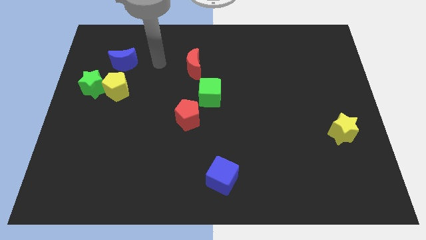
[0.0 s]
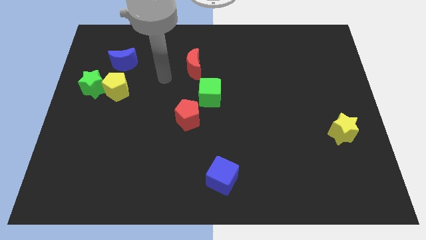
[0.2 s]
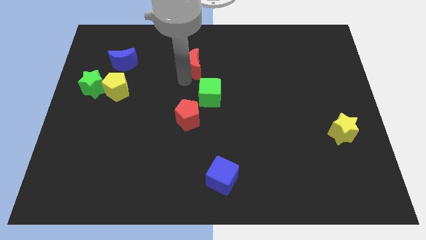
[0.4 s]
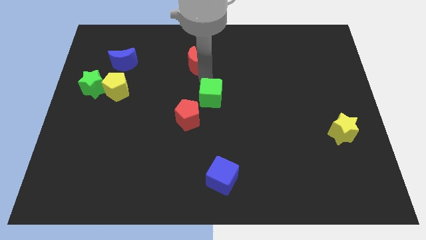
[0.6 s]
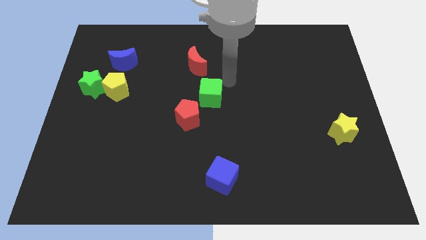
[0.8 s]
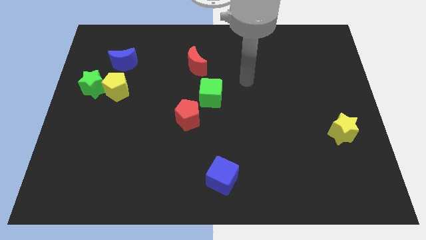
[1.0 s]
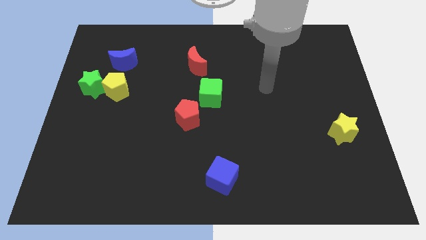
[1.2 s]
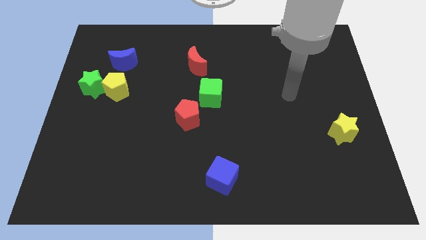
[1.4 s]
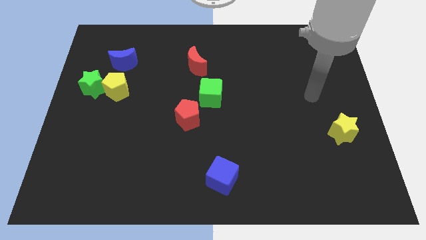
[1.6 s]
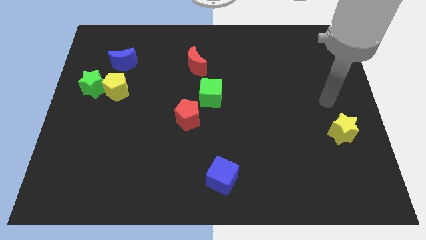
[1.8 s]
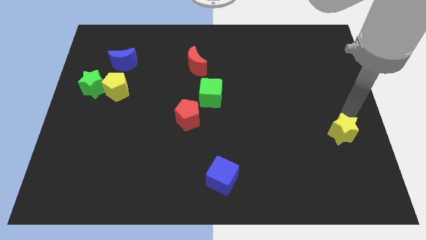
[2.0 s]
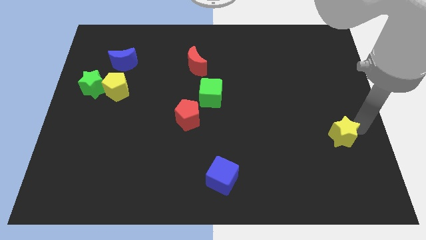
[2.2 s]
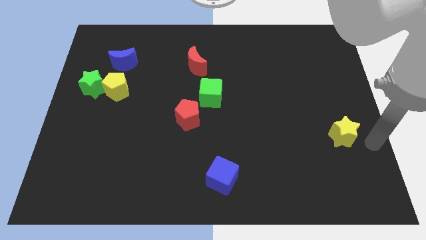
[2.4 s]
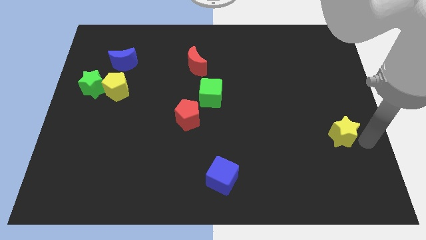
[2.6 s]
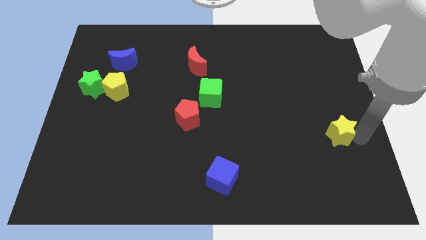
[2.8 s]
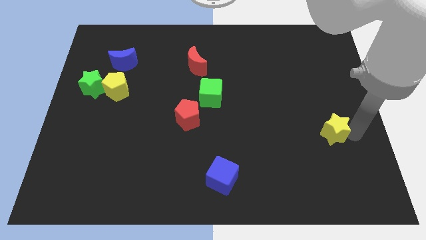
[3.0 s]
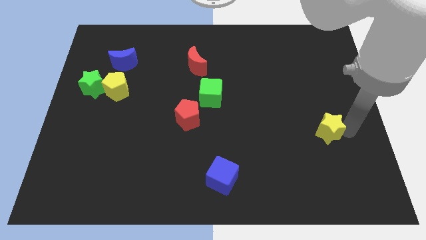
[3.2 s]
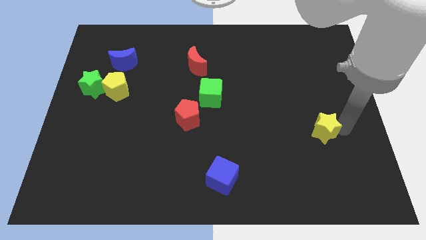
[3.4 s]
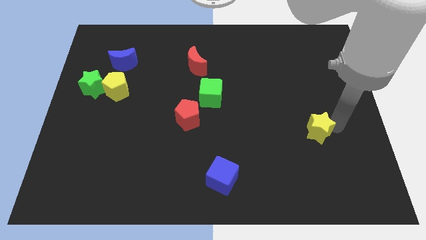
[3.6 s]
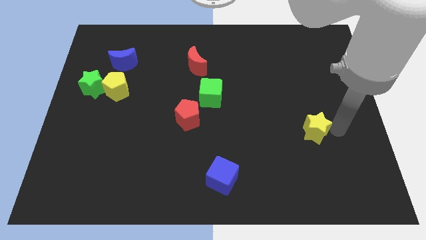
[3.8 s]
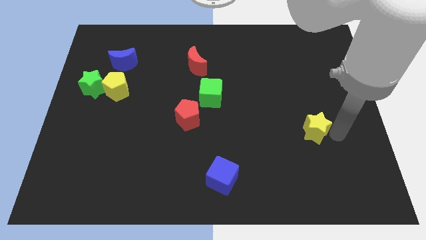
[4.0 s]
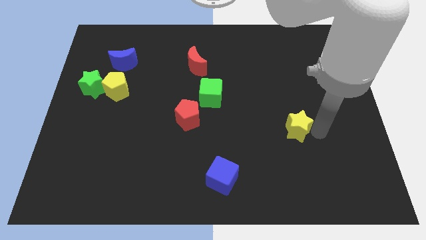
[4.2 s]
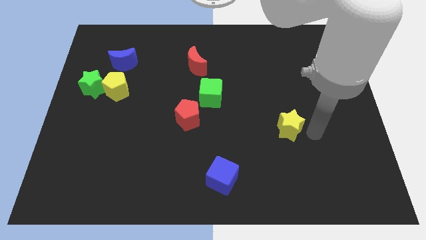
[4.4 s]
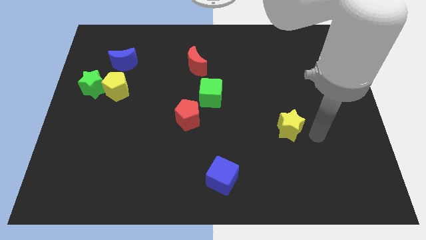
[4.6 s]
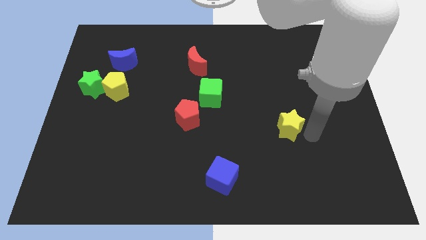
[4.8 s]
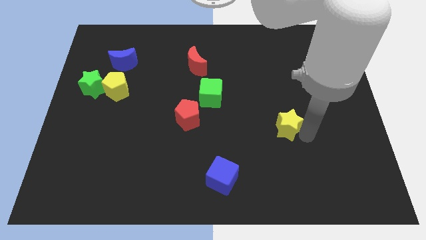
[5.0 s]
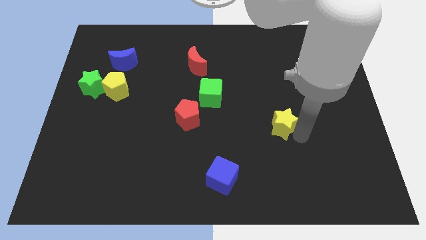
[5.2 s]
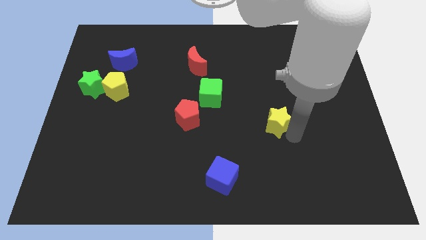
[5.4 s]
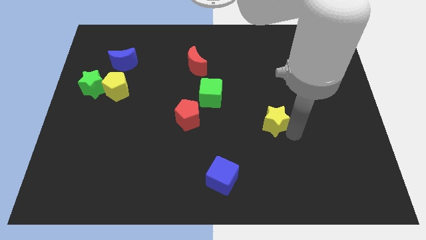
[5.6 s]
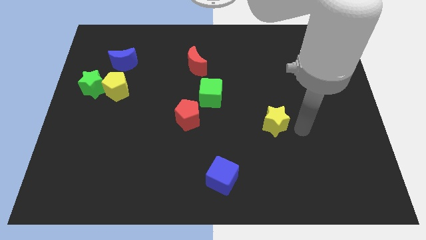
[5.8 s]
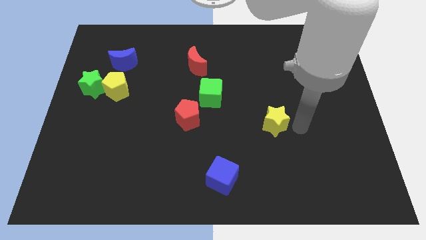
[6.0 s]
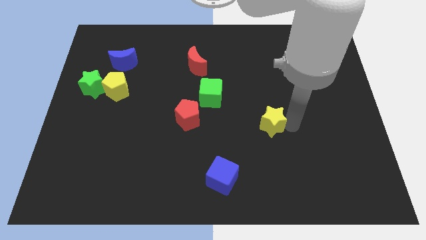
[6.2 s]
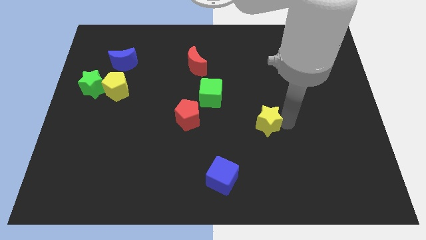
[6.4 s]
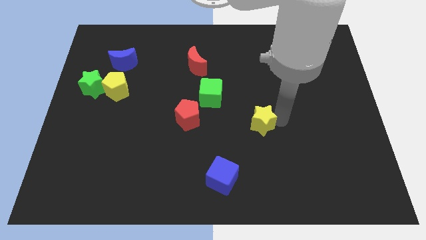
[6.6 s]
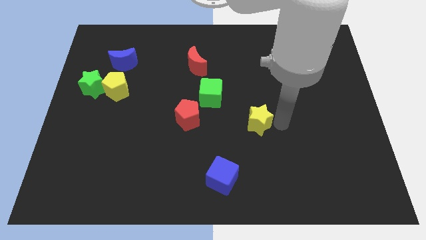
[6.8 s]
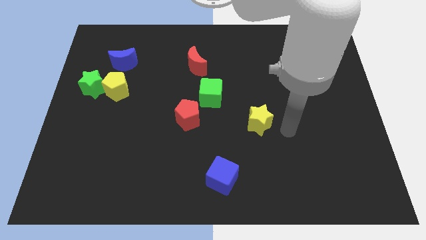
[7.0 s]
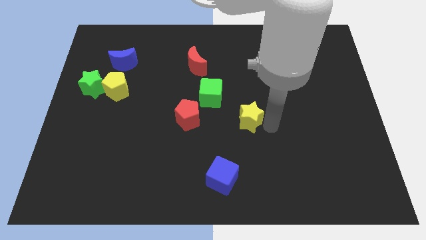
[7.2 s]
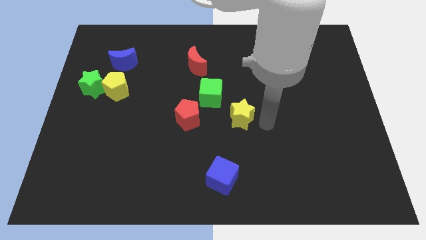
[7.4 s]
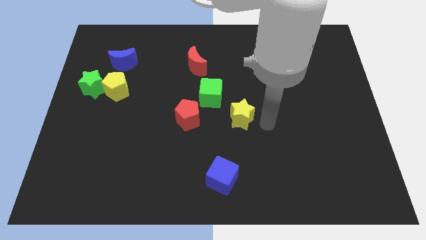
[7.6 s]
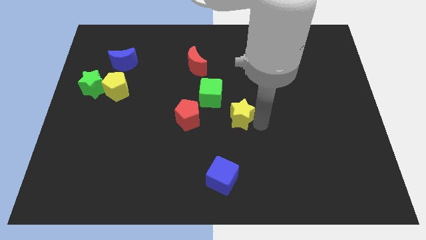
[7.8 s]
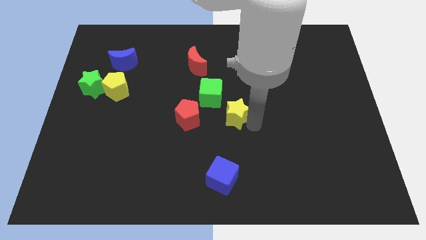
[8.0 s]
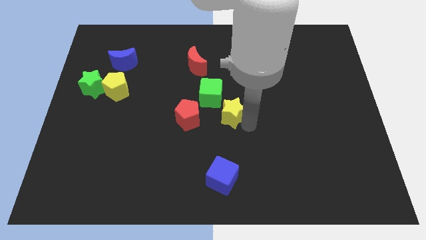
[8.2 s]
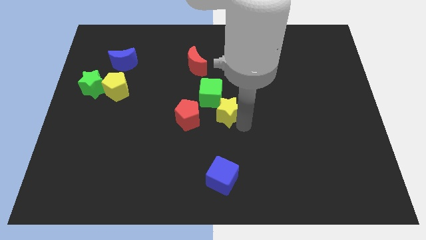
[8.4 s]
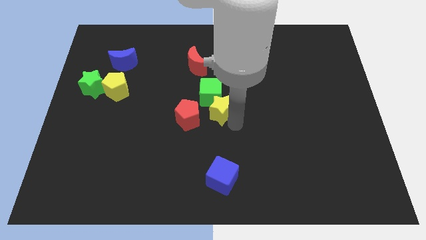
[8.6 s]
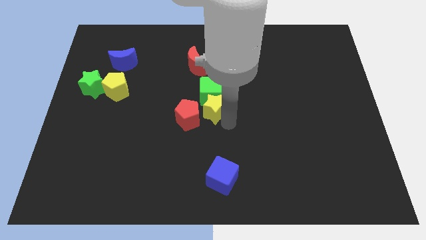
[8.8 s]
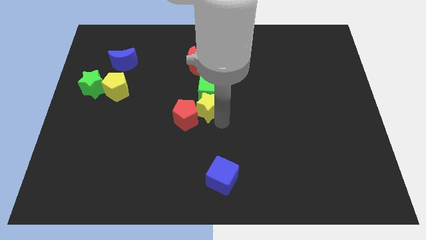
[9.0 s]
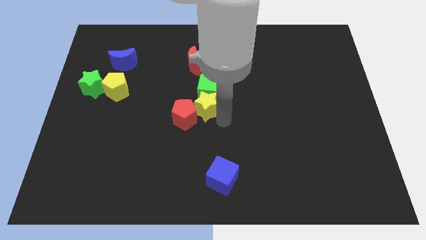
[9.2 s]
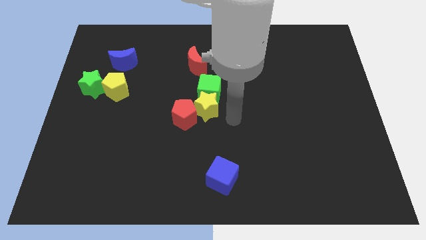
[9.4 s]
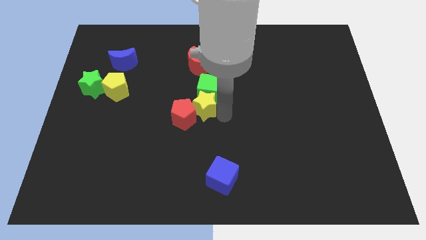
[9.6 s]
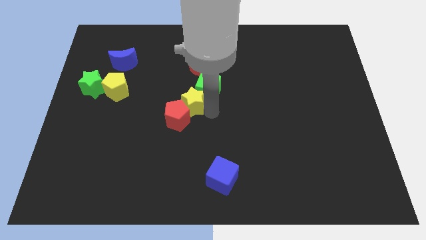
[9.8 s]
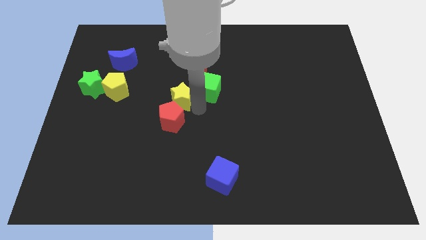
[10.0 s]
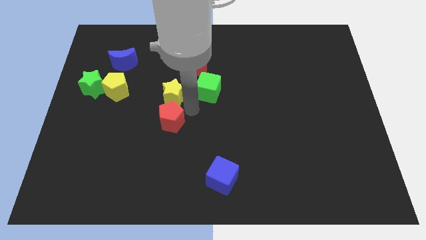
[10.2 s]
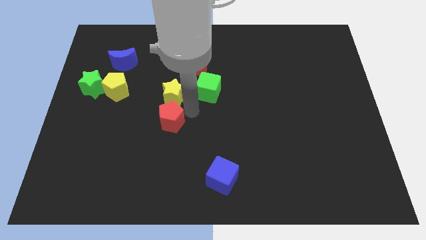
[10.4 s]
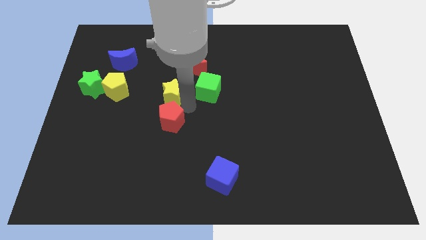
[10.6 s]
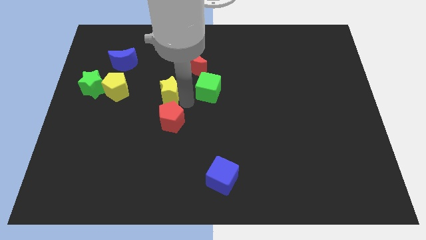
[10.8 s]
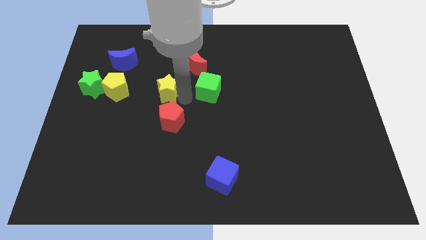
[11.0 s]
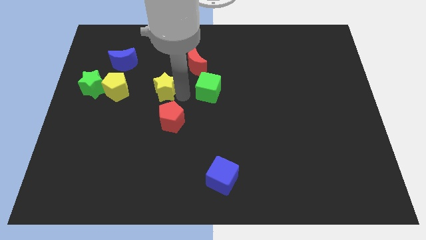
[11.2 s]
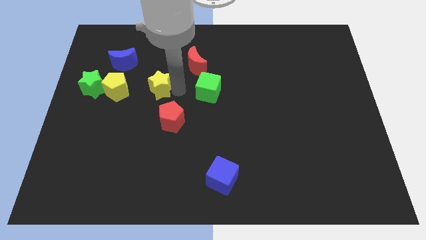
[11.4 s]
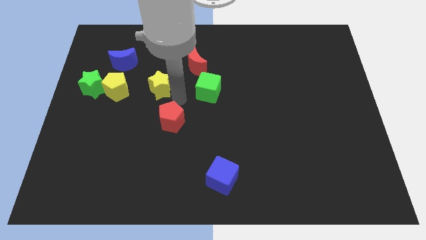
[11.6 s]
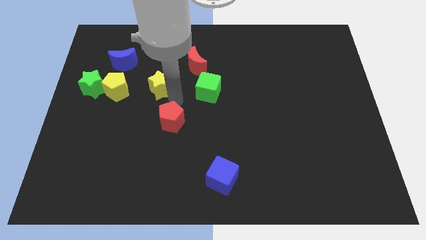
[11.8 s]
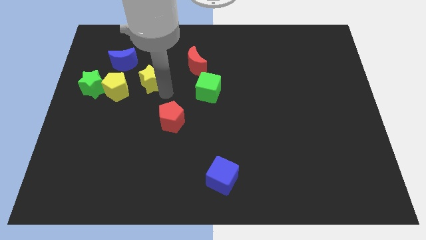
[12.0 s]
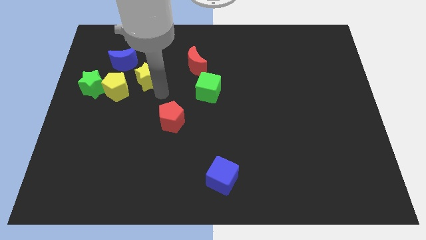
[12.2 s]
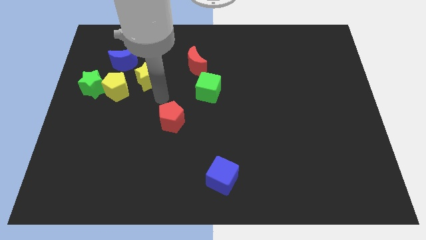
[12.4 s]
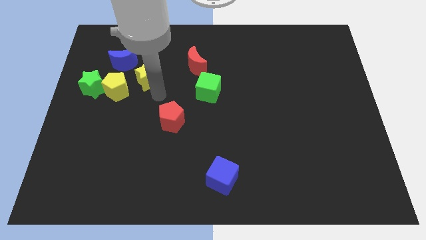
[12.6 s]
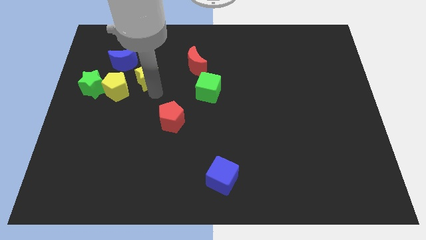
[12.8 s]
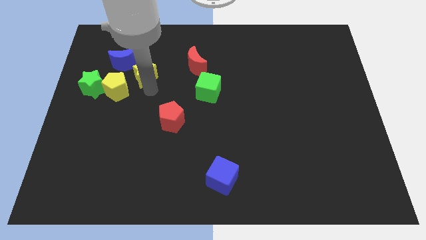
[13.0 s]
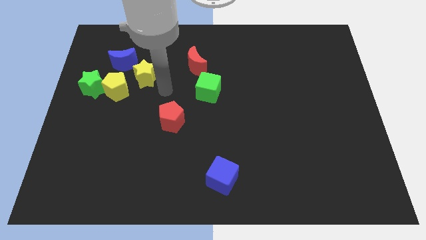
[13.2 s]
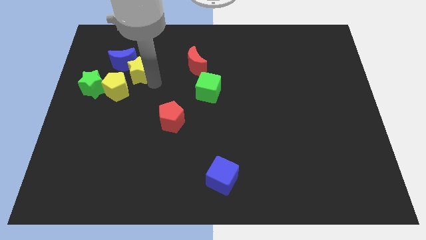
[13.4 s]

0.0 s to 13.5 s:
put the yellow star next to the blue moon
